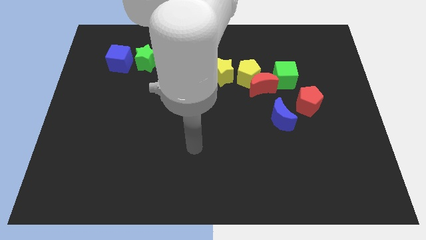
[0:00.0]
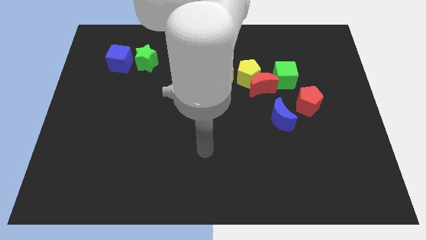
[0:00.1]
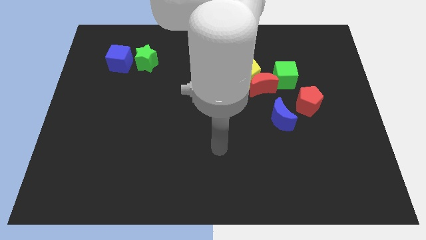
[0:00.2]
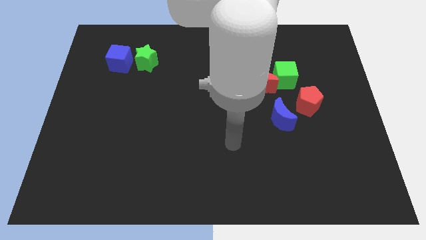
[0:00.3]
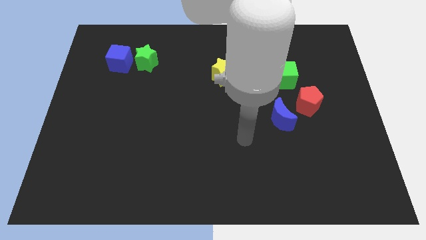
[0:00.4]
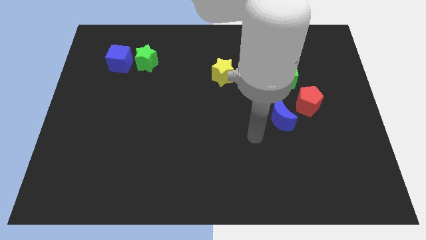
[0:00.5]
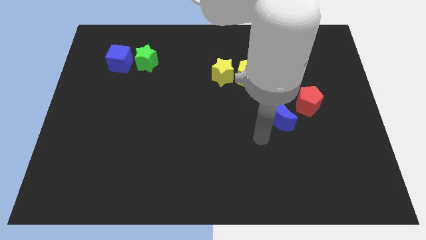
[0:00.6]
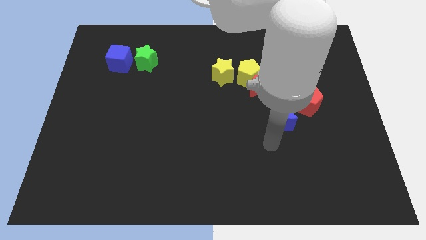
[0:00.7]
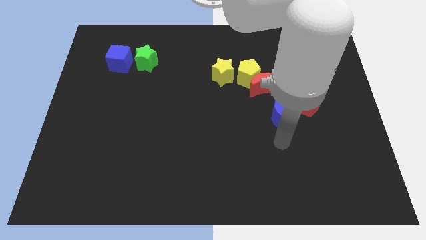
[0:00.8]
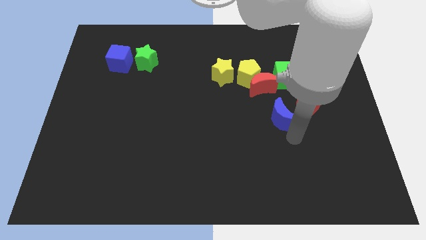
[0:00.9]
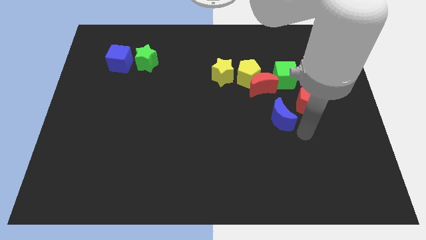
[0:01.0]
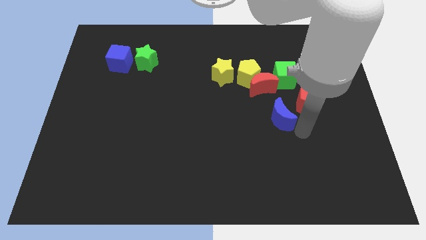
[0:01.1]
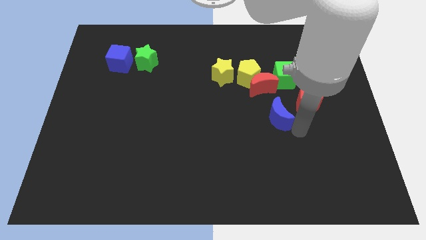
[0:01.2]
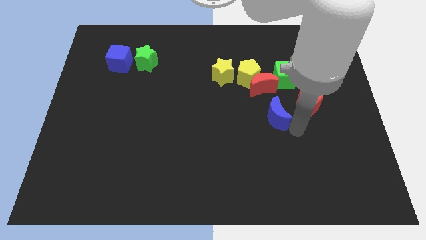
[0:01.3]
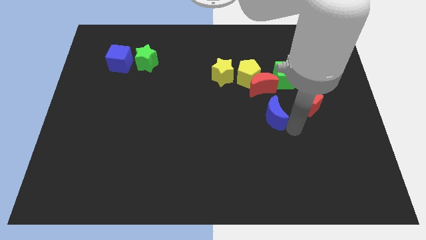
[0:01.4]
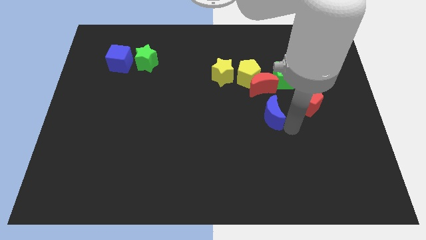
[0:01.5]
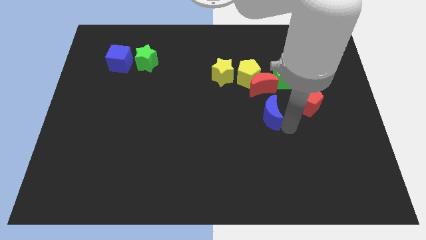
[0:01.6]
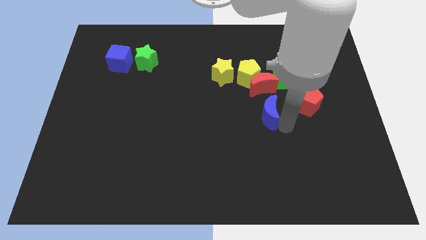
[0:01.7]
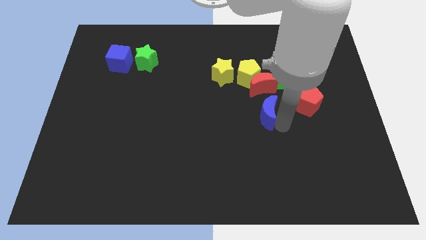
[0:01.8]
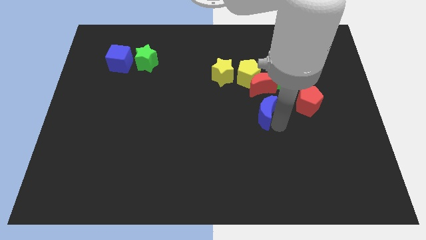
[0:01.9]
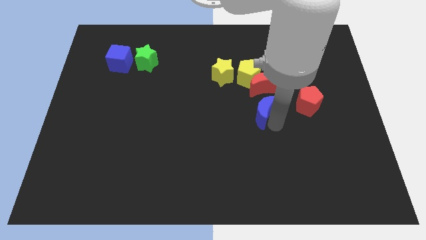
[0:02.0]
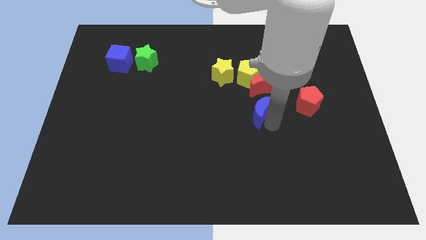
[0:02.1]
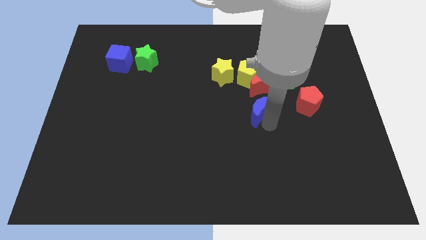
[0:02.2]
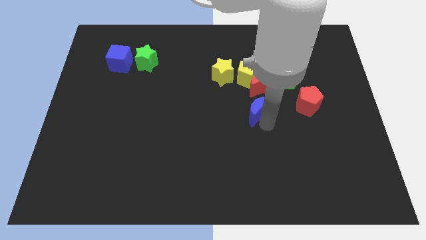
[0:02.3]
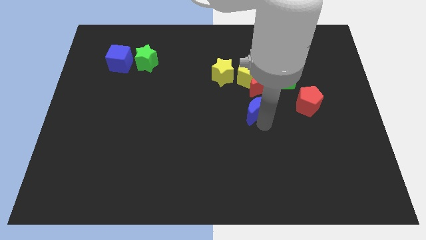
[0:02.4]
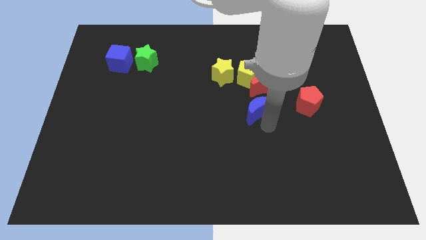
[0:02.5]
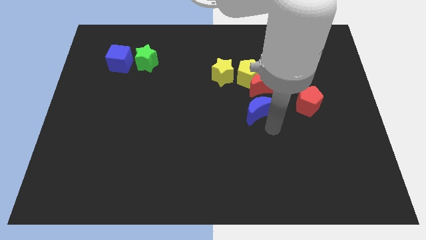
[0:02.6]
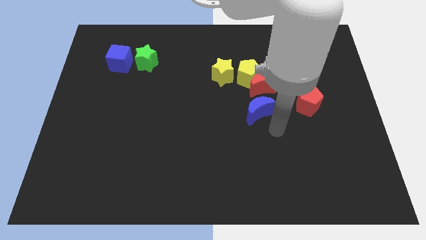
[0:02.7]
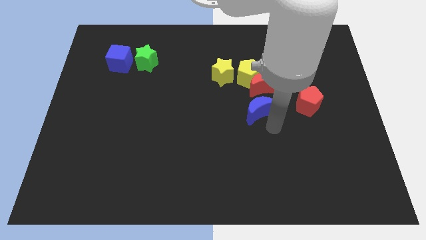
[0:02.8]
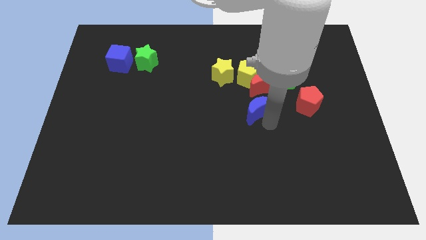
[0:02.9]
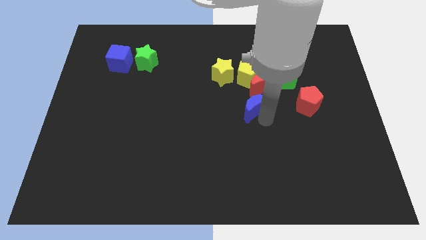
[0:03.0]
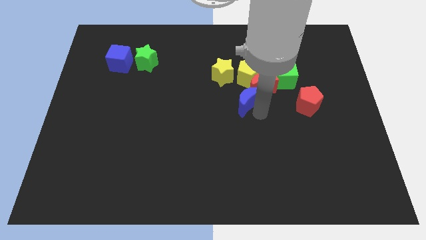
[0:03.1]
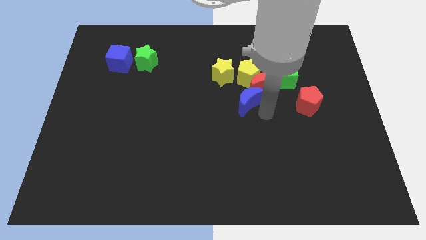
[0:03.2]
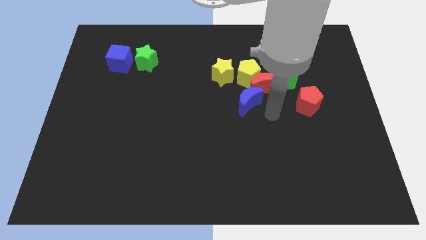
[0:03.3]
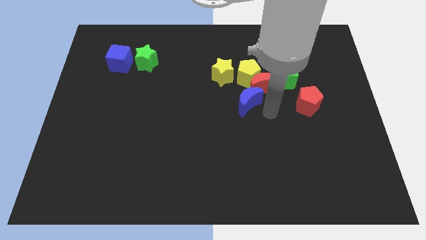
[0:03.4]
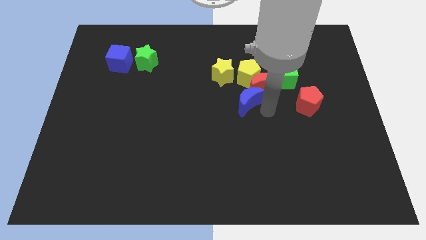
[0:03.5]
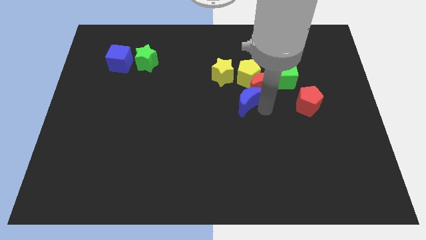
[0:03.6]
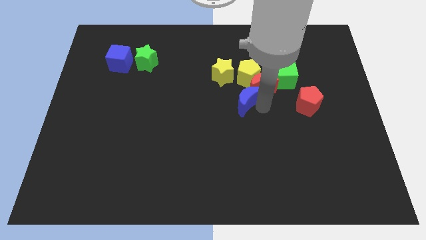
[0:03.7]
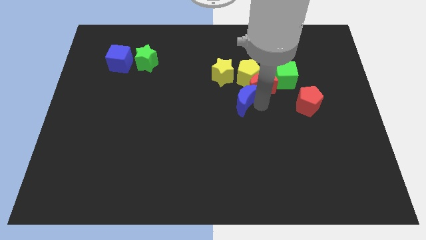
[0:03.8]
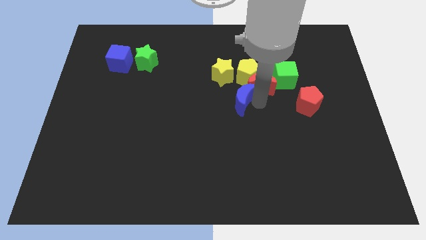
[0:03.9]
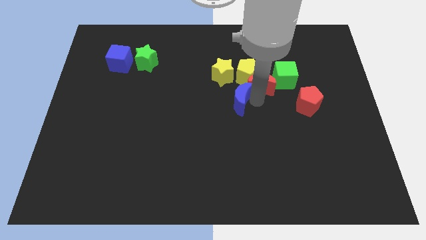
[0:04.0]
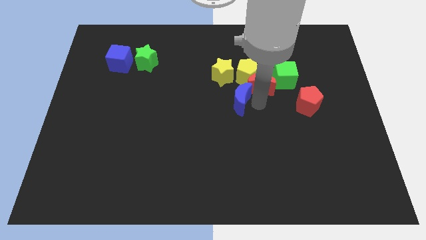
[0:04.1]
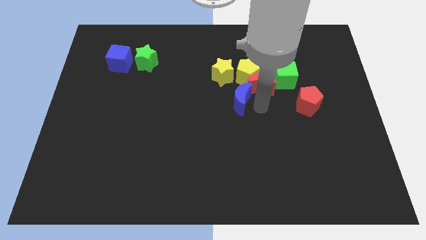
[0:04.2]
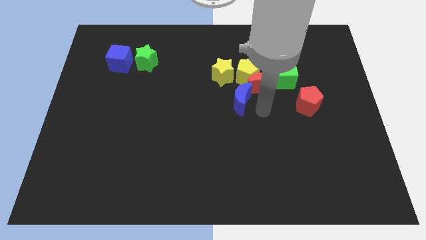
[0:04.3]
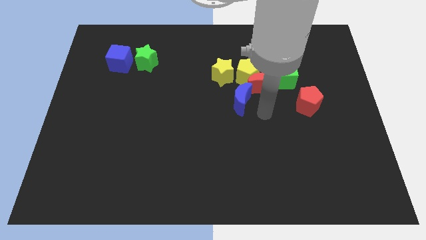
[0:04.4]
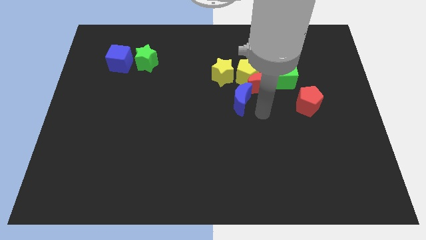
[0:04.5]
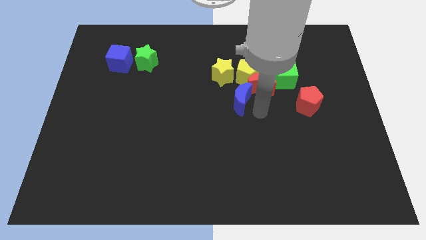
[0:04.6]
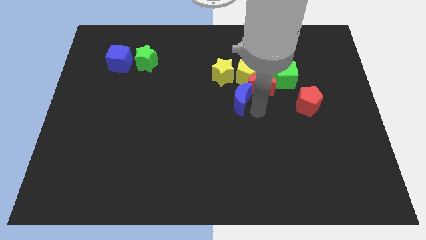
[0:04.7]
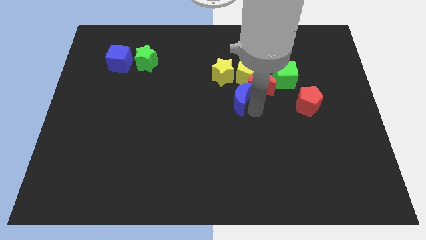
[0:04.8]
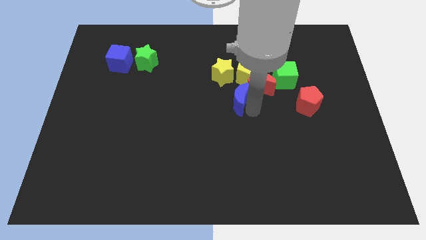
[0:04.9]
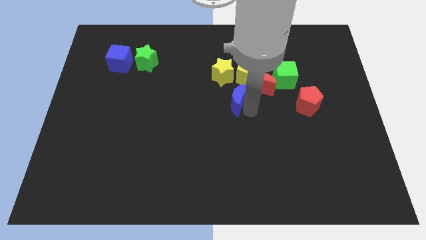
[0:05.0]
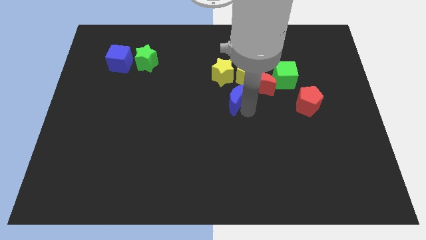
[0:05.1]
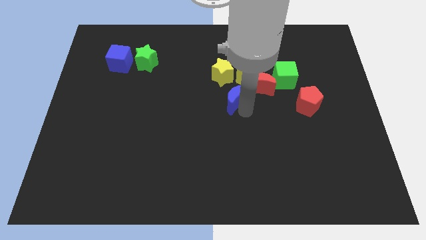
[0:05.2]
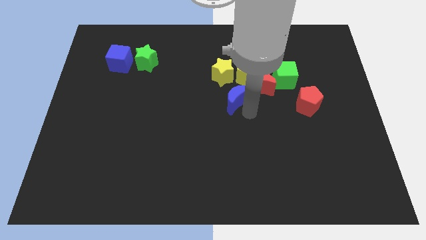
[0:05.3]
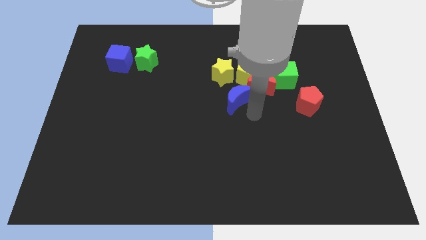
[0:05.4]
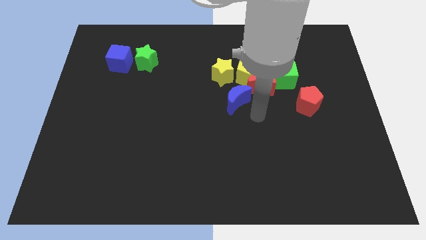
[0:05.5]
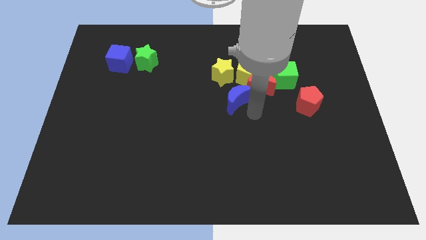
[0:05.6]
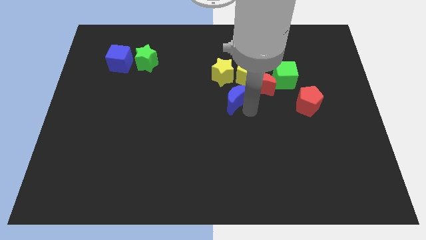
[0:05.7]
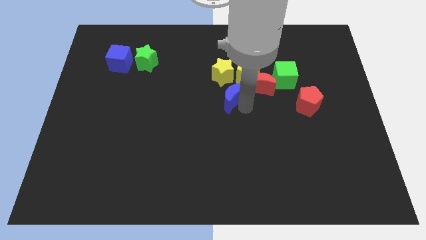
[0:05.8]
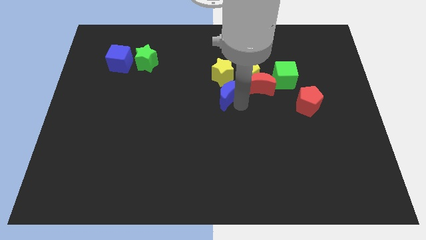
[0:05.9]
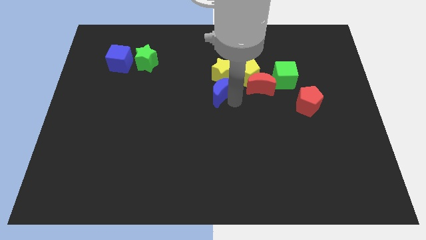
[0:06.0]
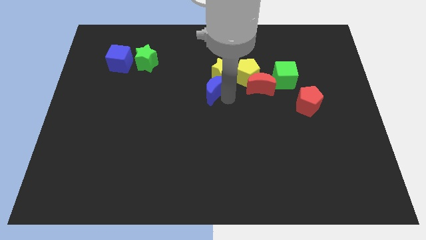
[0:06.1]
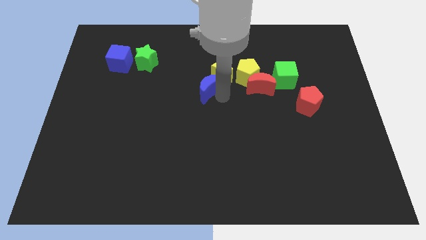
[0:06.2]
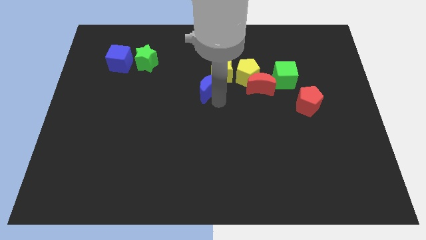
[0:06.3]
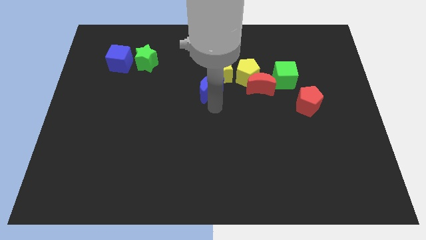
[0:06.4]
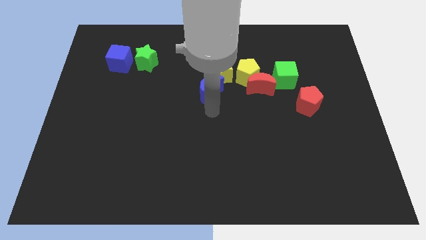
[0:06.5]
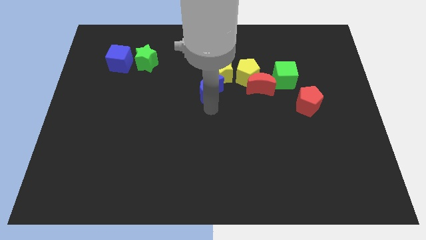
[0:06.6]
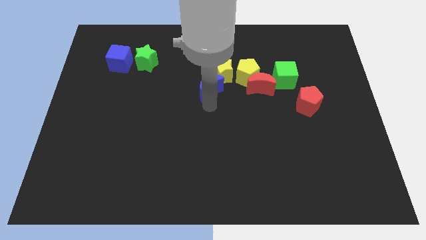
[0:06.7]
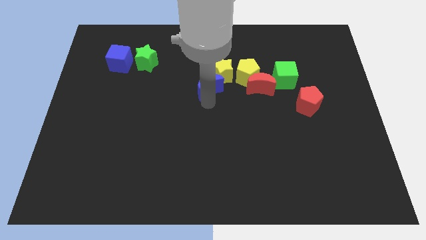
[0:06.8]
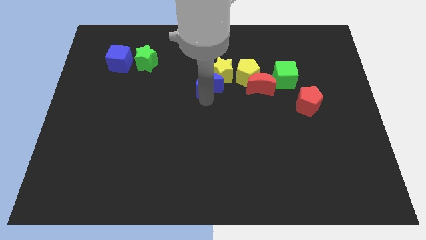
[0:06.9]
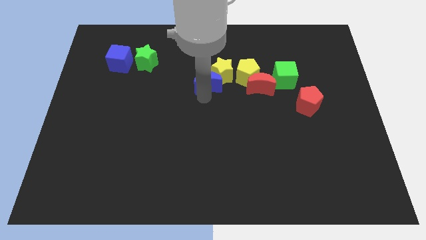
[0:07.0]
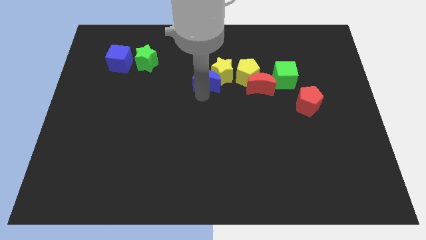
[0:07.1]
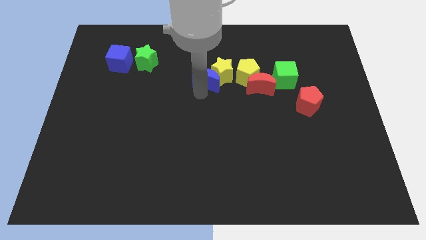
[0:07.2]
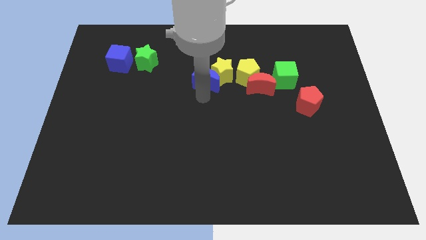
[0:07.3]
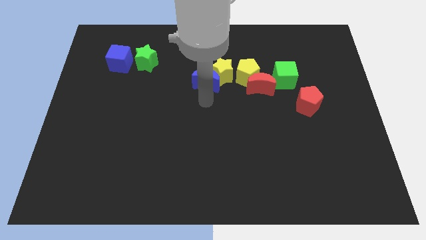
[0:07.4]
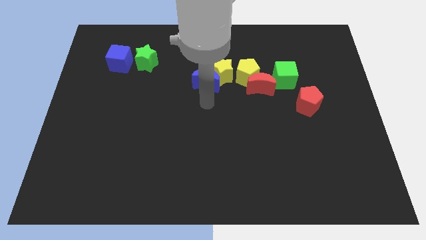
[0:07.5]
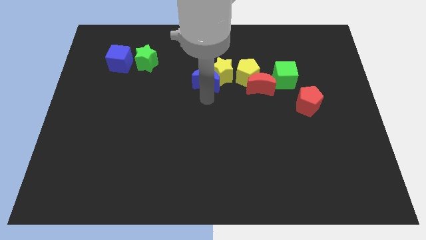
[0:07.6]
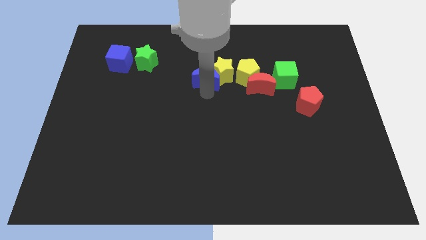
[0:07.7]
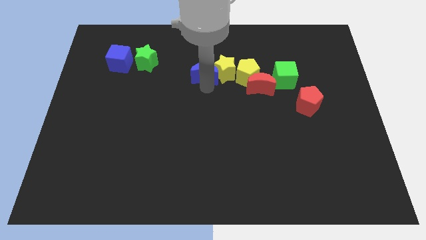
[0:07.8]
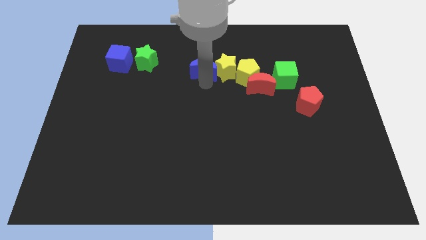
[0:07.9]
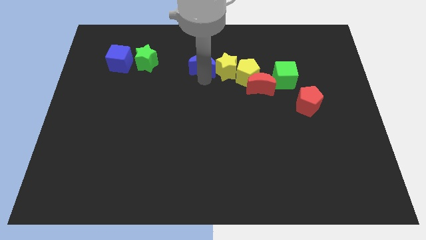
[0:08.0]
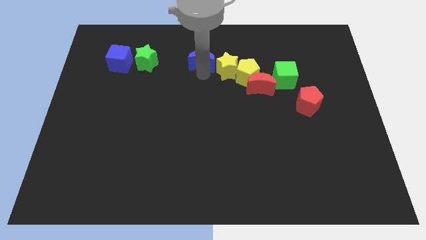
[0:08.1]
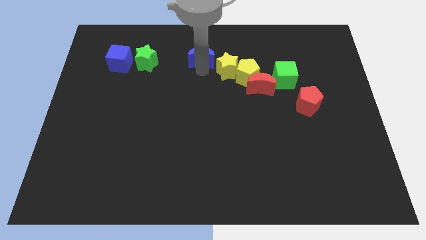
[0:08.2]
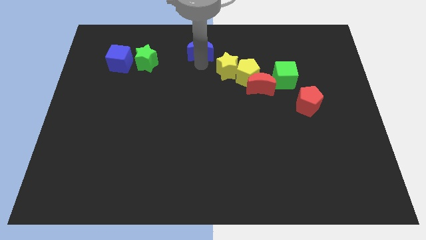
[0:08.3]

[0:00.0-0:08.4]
slide the blue moon to the top side
